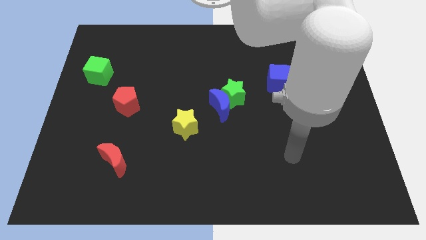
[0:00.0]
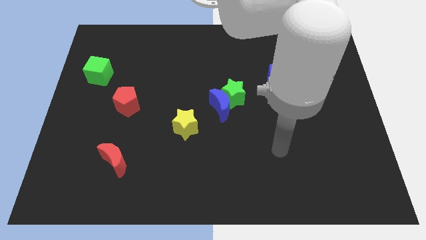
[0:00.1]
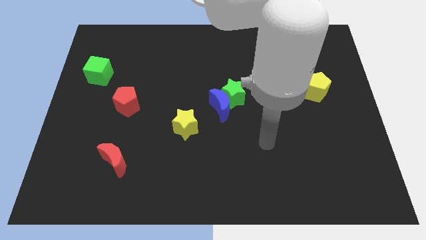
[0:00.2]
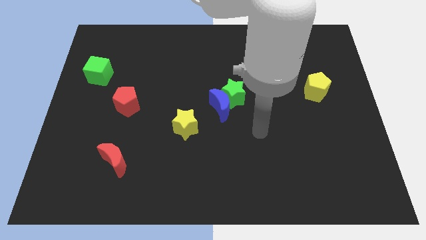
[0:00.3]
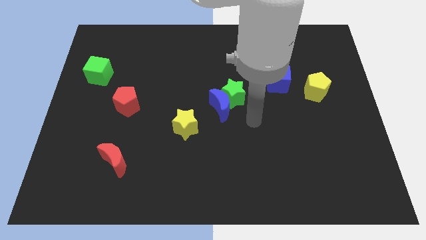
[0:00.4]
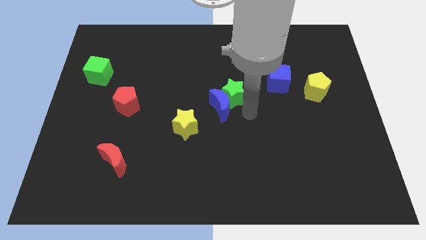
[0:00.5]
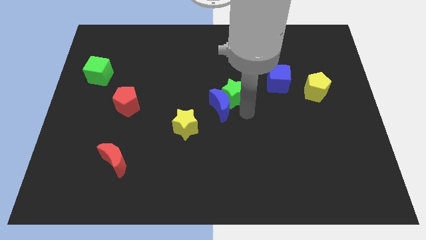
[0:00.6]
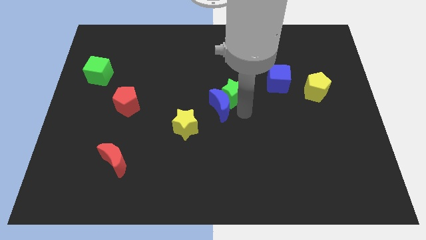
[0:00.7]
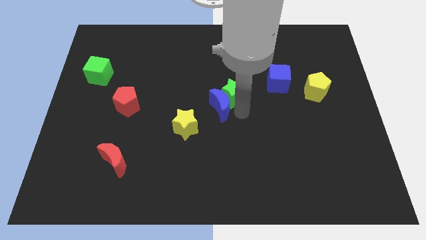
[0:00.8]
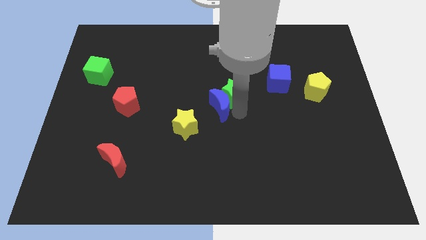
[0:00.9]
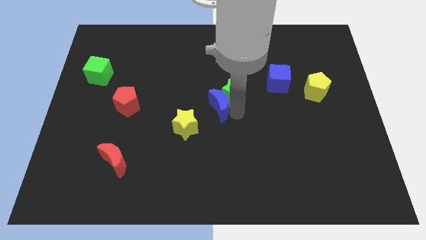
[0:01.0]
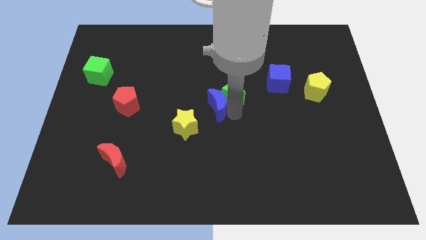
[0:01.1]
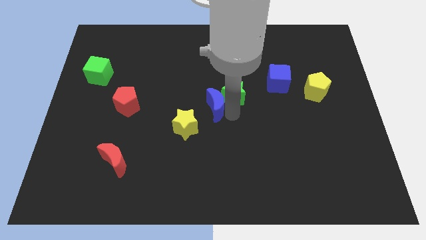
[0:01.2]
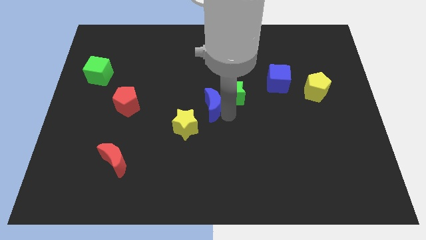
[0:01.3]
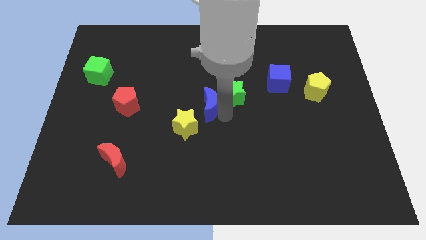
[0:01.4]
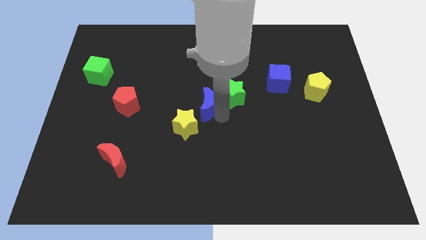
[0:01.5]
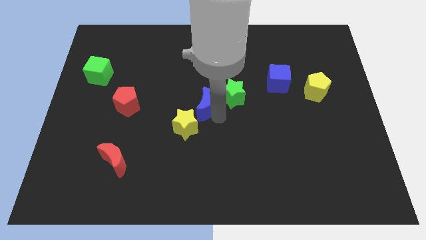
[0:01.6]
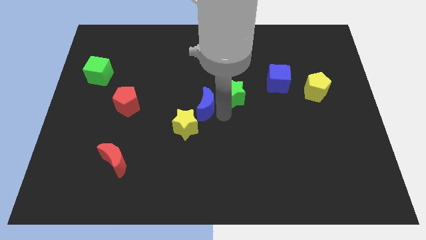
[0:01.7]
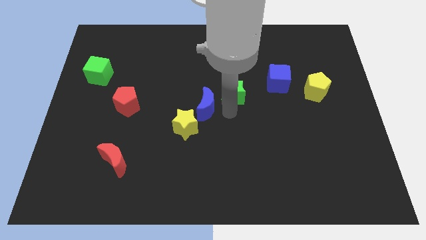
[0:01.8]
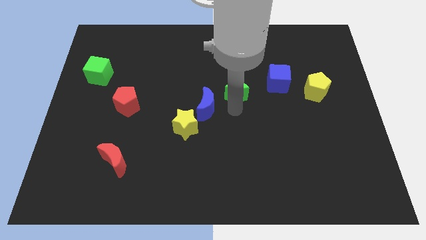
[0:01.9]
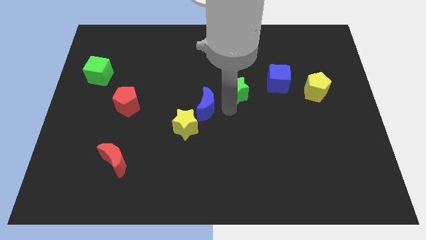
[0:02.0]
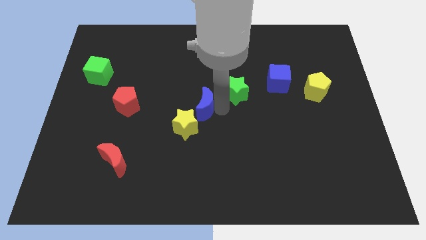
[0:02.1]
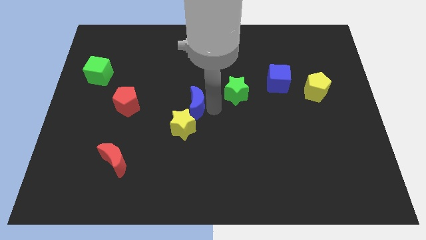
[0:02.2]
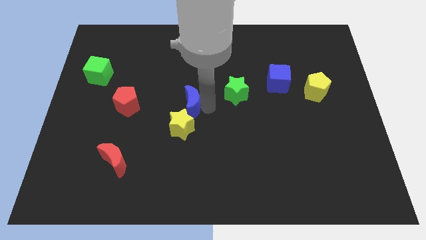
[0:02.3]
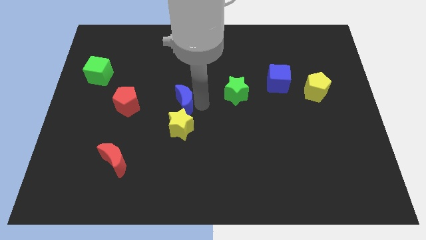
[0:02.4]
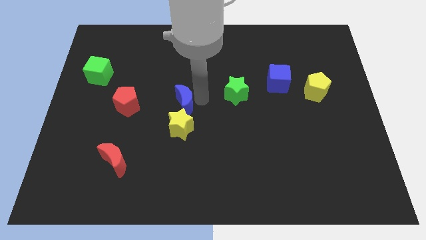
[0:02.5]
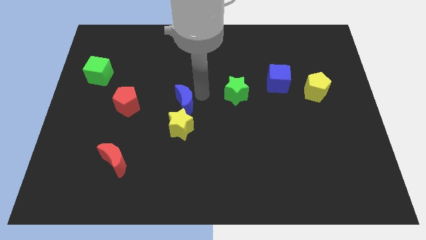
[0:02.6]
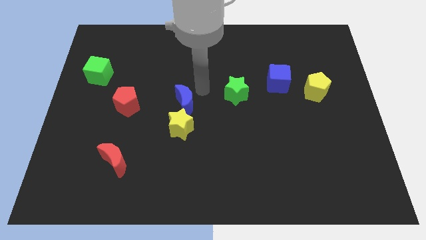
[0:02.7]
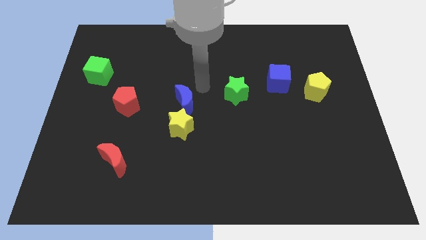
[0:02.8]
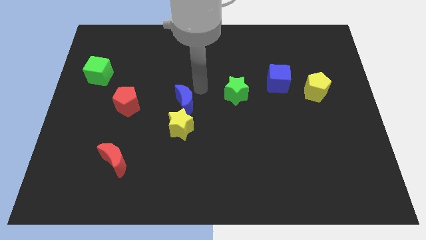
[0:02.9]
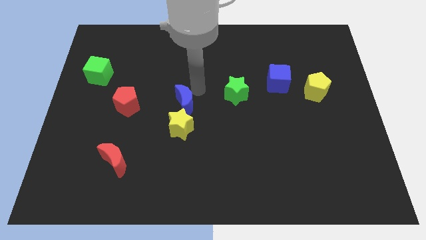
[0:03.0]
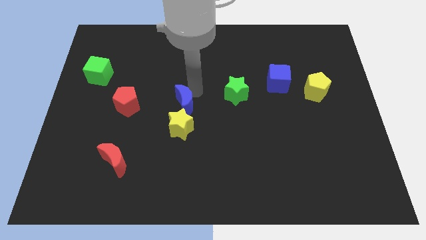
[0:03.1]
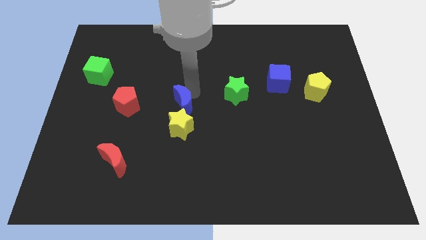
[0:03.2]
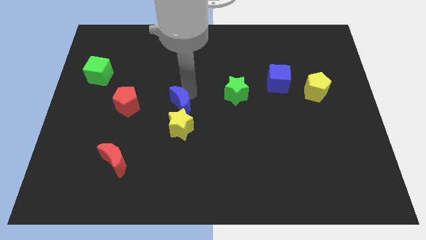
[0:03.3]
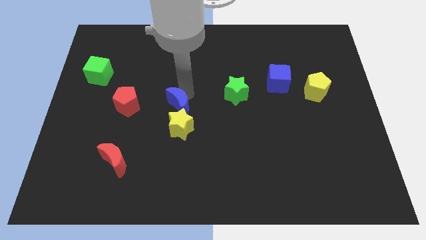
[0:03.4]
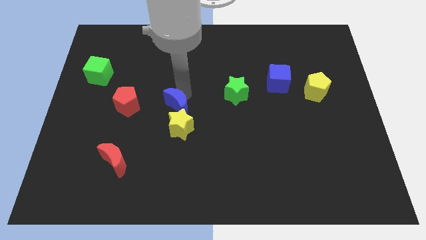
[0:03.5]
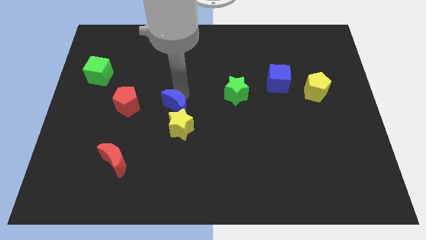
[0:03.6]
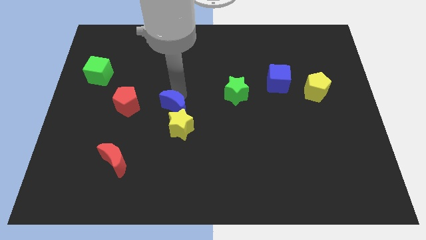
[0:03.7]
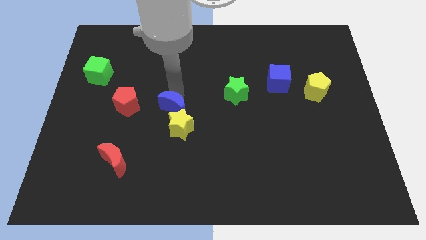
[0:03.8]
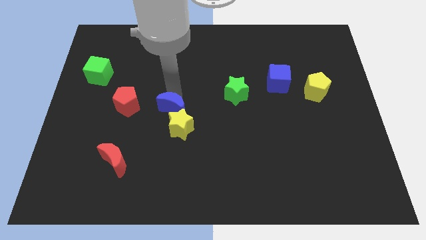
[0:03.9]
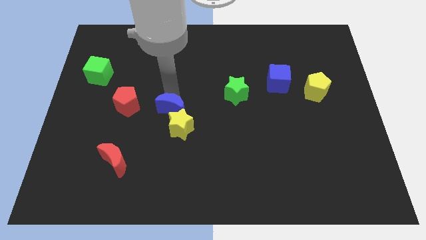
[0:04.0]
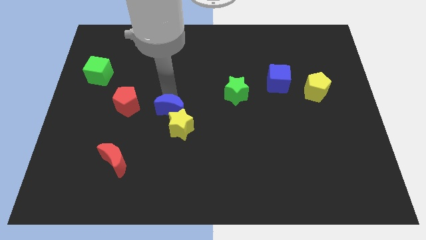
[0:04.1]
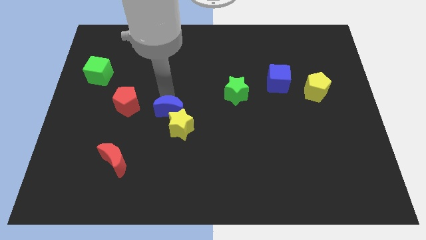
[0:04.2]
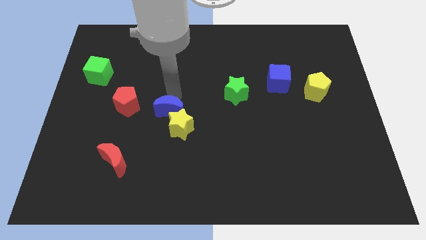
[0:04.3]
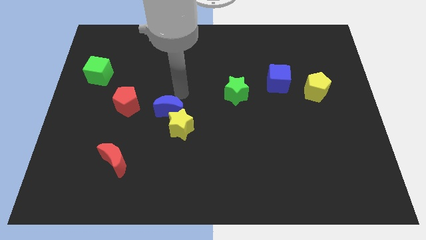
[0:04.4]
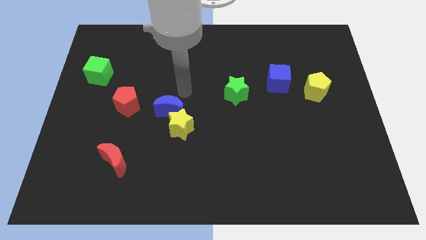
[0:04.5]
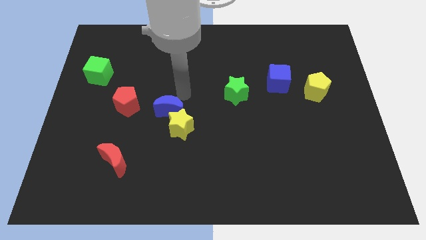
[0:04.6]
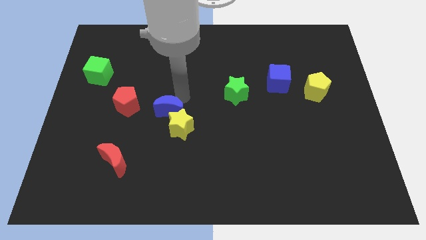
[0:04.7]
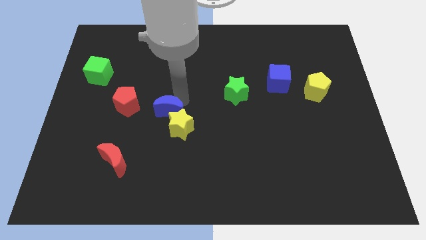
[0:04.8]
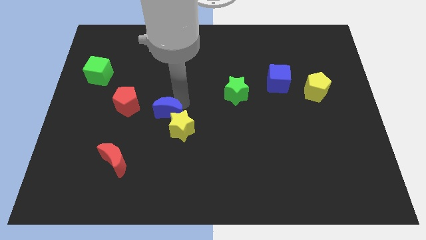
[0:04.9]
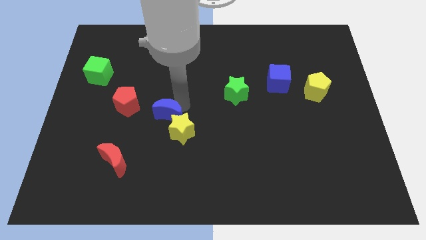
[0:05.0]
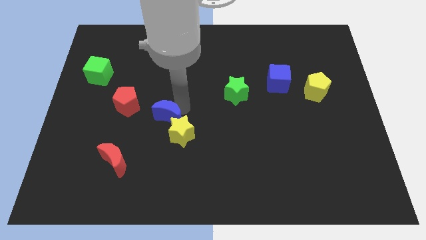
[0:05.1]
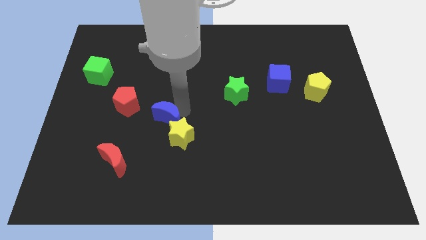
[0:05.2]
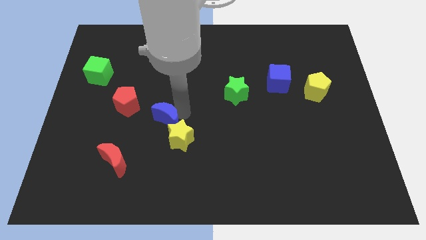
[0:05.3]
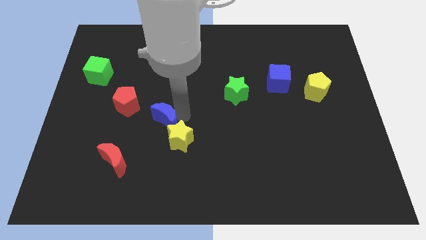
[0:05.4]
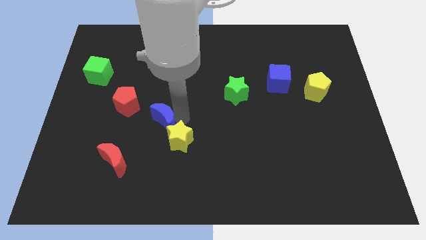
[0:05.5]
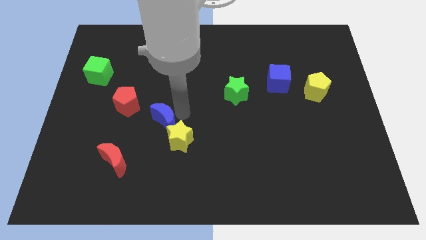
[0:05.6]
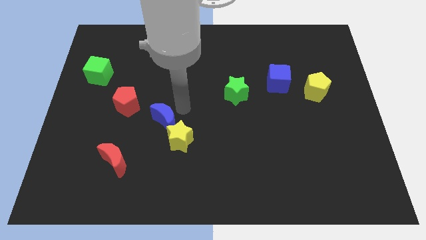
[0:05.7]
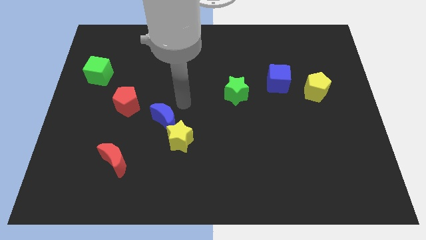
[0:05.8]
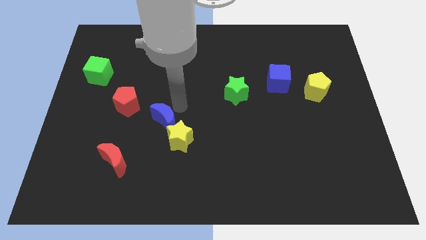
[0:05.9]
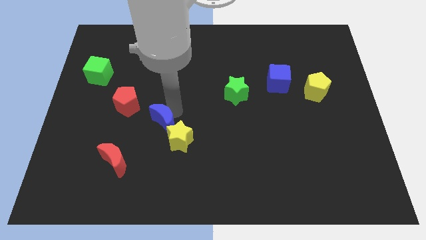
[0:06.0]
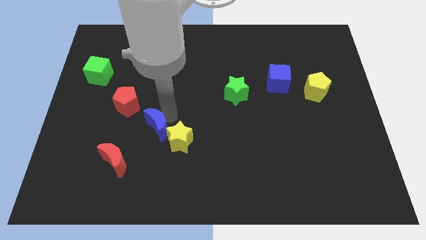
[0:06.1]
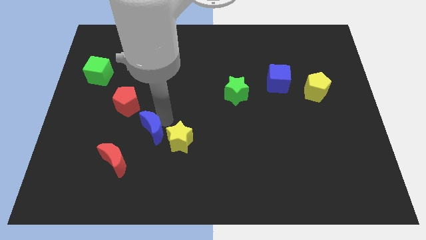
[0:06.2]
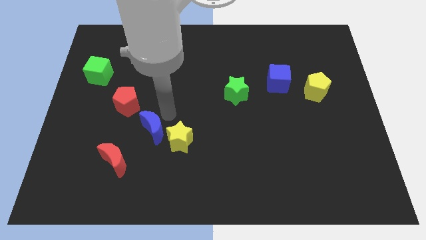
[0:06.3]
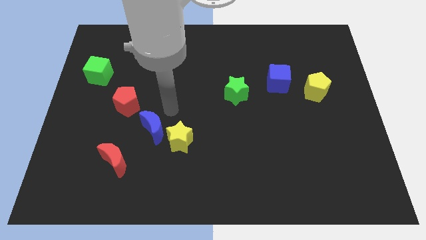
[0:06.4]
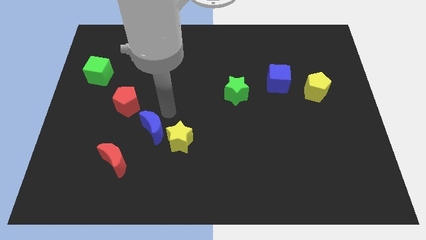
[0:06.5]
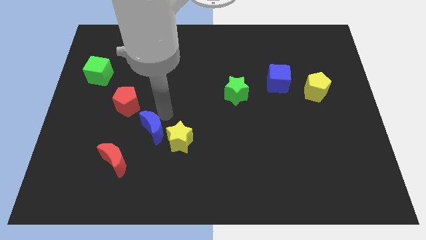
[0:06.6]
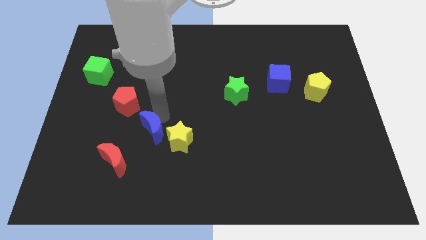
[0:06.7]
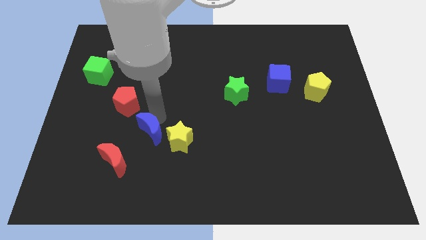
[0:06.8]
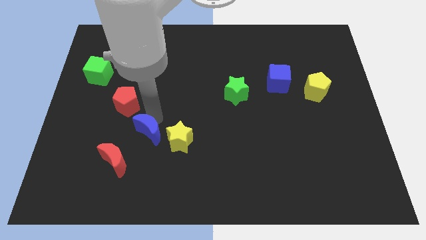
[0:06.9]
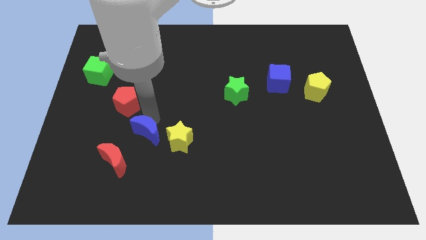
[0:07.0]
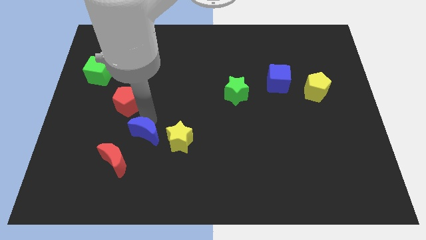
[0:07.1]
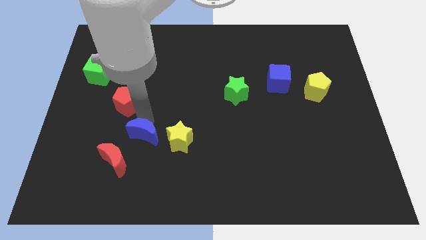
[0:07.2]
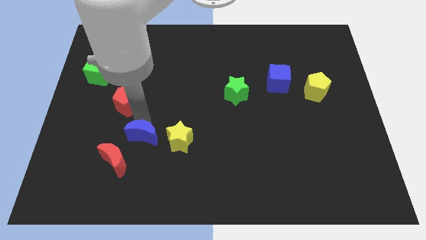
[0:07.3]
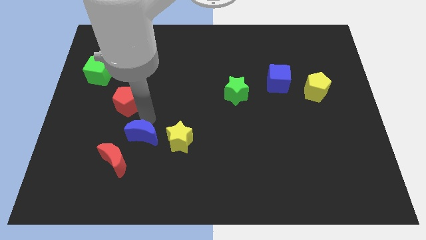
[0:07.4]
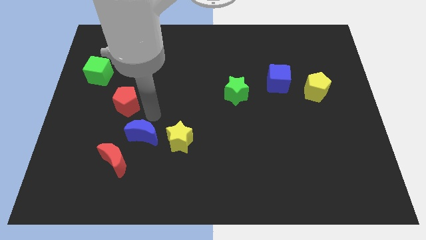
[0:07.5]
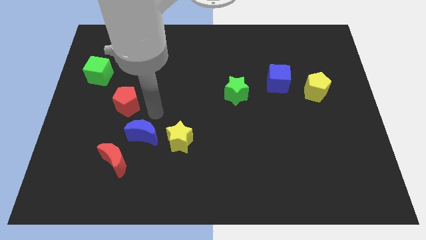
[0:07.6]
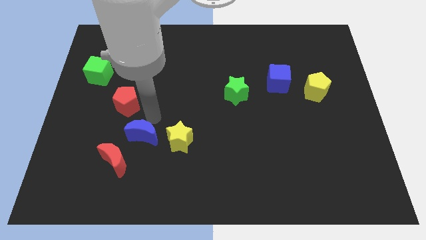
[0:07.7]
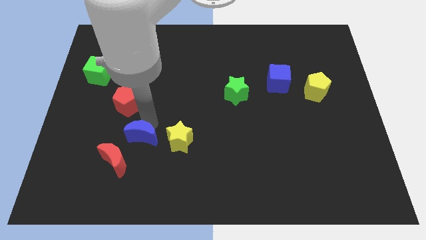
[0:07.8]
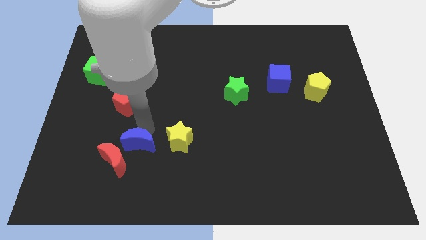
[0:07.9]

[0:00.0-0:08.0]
move the blue moon close to the red moon
